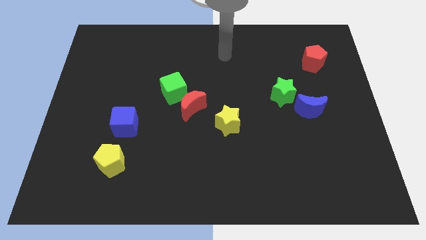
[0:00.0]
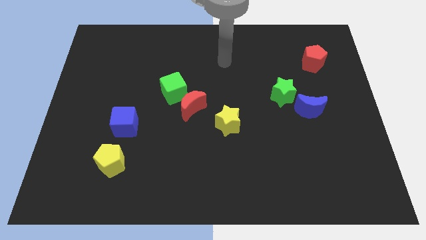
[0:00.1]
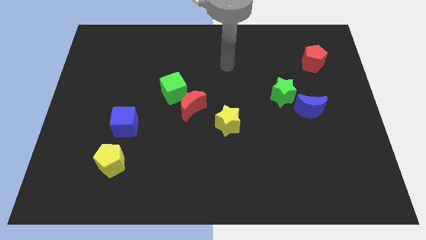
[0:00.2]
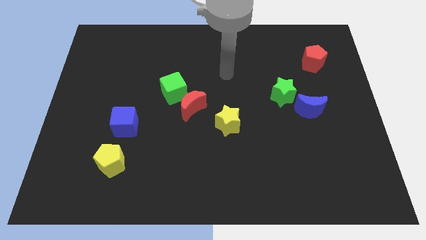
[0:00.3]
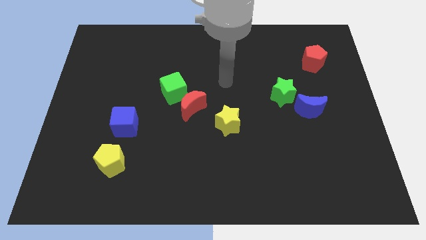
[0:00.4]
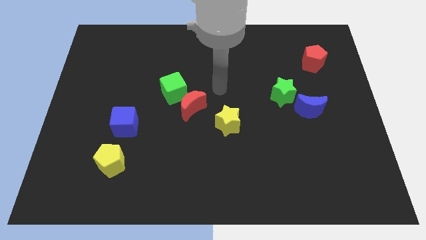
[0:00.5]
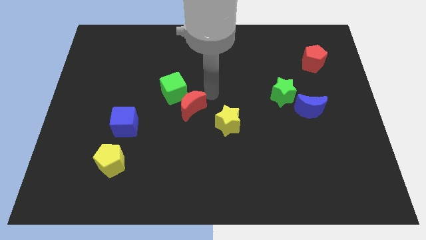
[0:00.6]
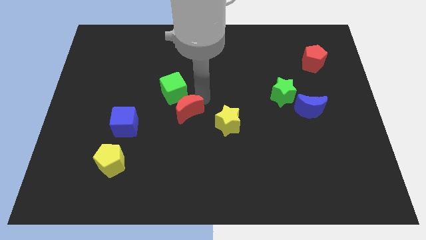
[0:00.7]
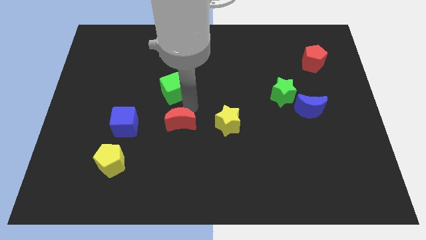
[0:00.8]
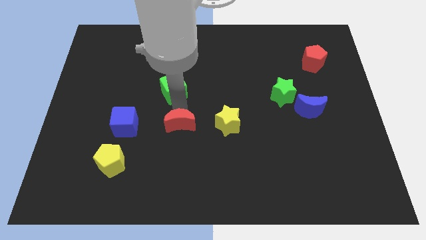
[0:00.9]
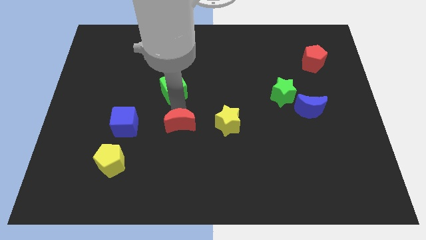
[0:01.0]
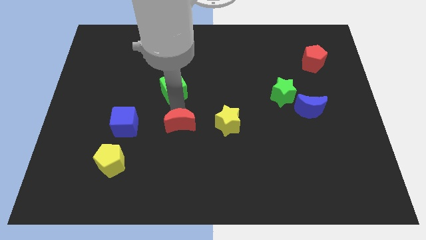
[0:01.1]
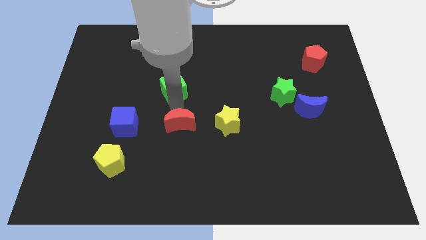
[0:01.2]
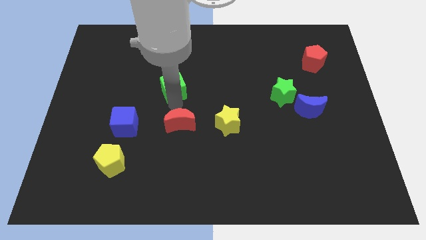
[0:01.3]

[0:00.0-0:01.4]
move the green cube away from the red moon

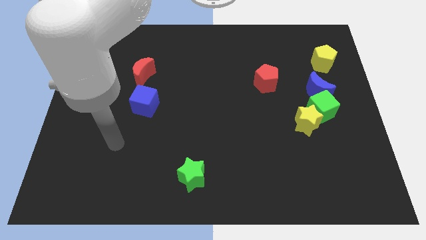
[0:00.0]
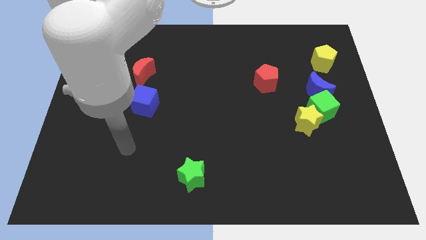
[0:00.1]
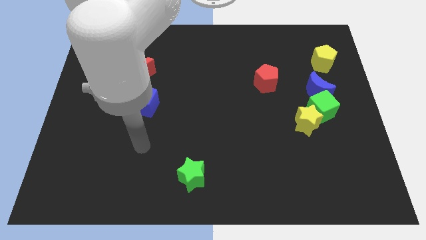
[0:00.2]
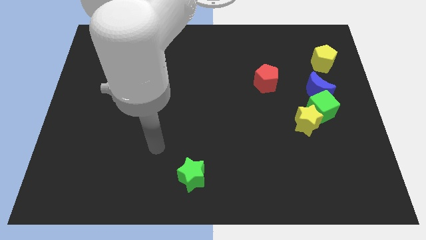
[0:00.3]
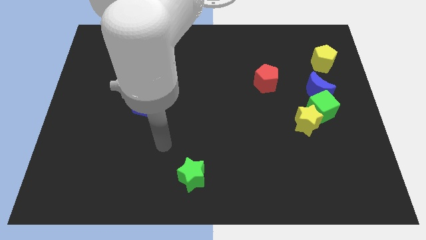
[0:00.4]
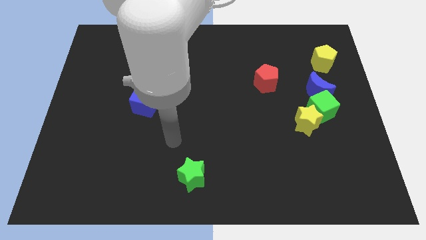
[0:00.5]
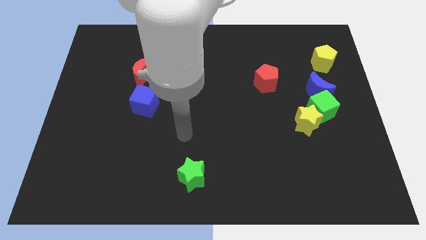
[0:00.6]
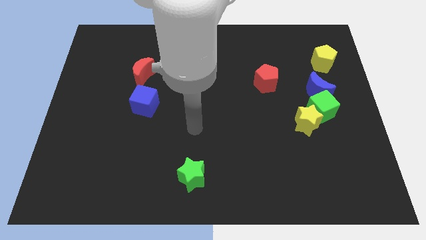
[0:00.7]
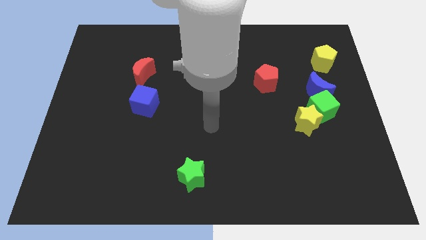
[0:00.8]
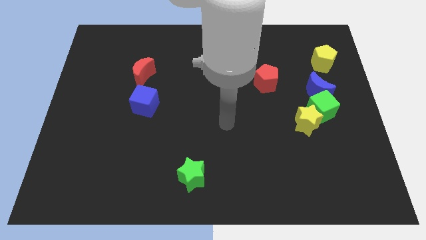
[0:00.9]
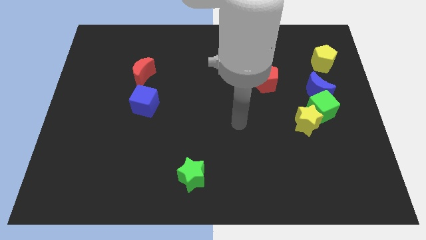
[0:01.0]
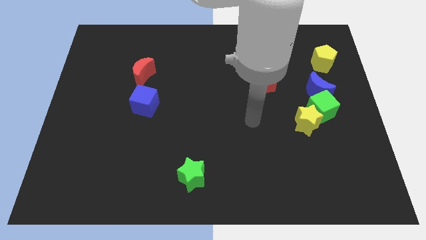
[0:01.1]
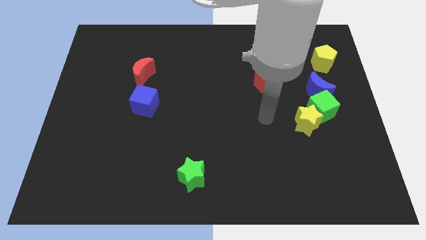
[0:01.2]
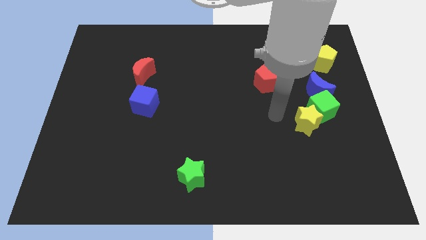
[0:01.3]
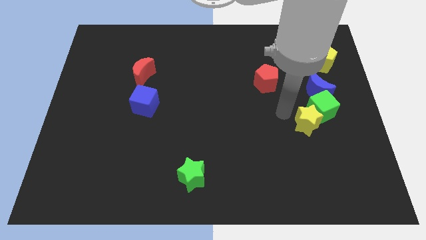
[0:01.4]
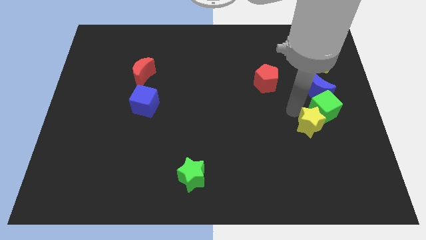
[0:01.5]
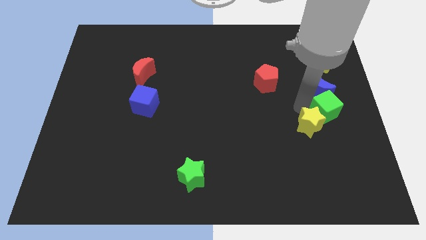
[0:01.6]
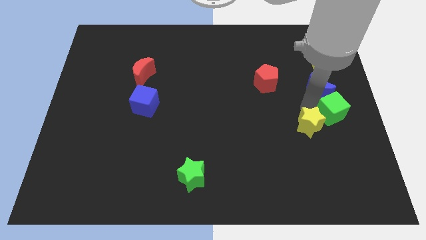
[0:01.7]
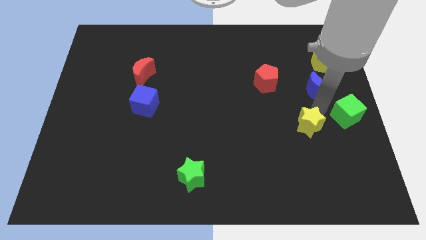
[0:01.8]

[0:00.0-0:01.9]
move the yellow star away from the green cube

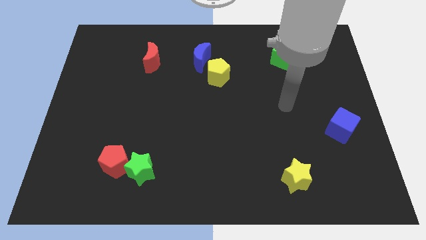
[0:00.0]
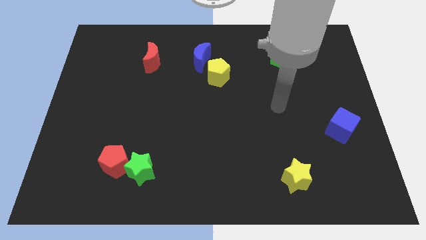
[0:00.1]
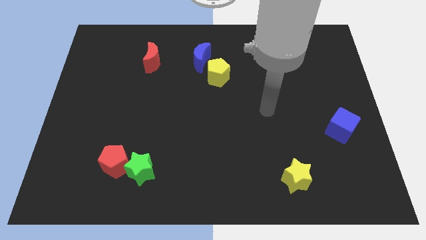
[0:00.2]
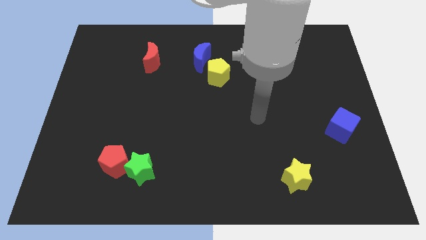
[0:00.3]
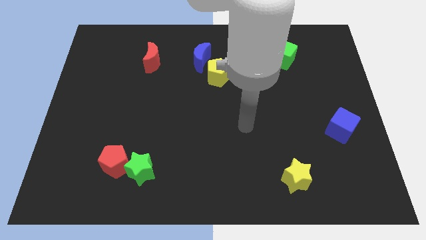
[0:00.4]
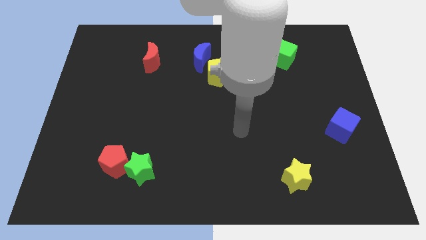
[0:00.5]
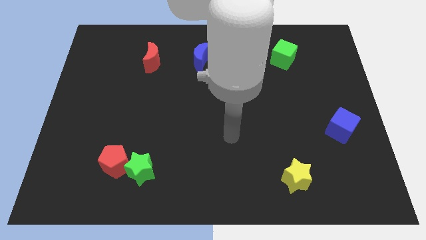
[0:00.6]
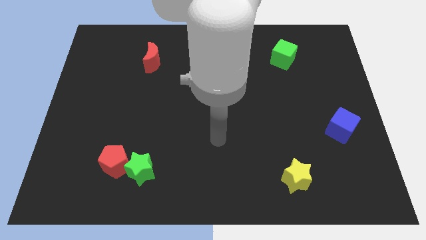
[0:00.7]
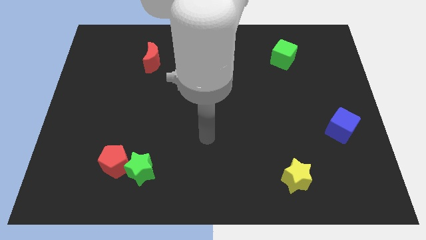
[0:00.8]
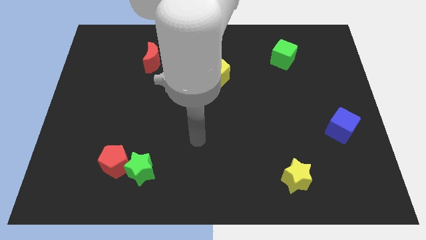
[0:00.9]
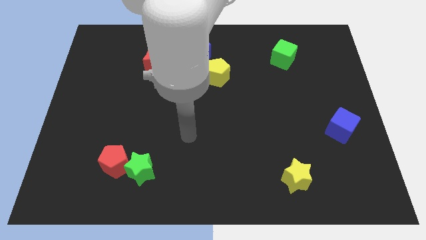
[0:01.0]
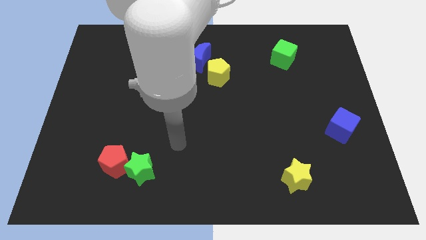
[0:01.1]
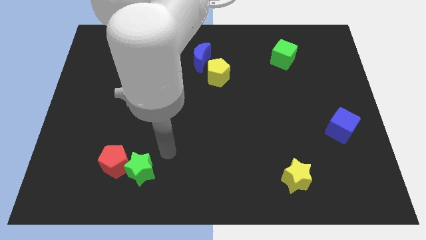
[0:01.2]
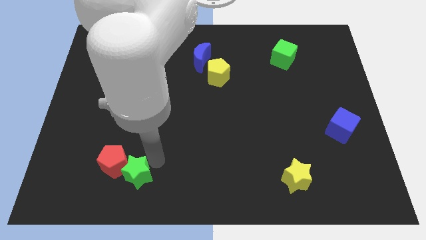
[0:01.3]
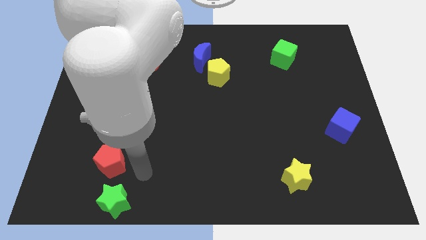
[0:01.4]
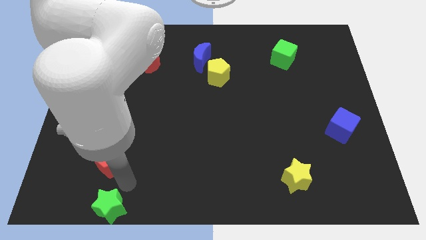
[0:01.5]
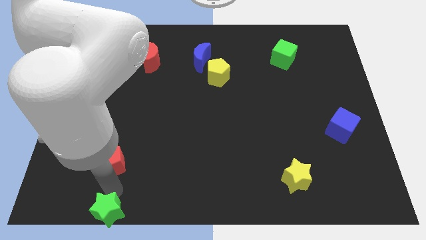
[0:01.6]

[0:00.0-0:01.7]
pull the red pentagon apart from the green star

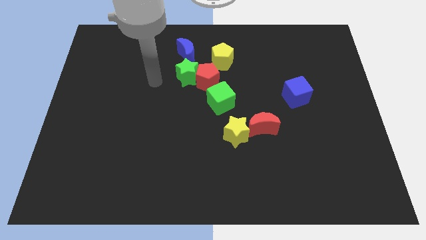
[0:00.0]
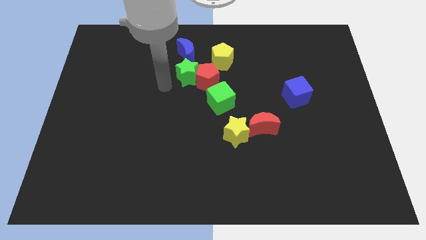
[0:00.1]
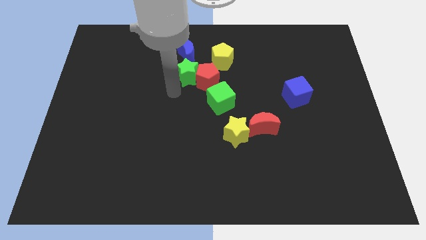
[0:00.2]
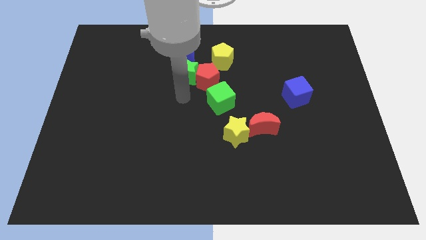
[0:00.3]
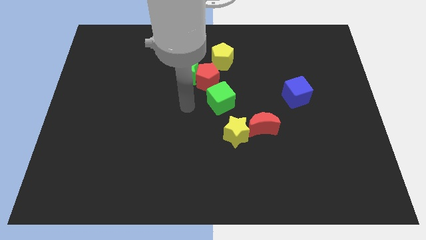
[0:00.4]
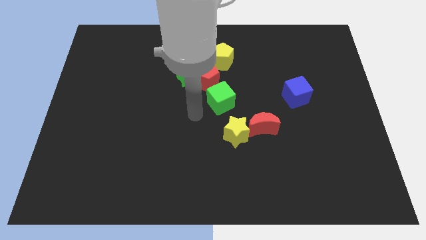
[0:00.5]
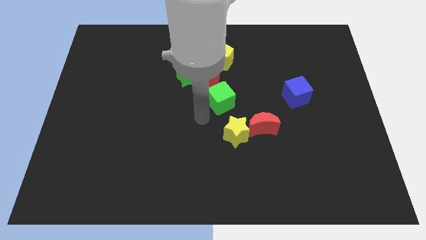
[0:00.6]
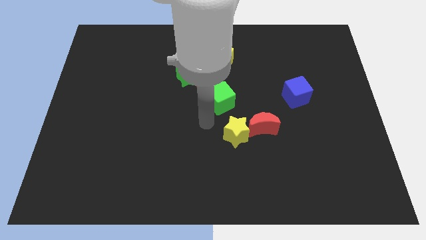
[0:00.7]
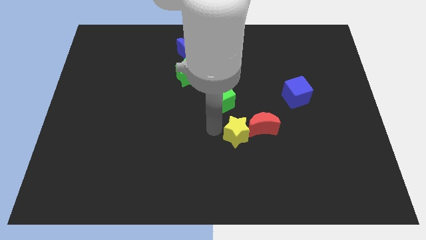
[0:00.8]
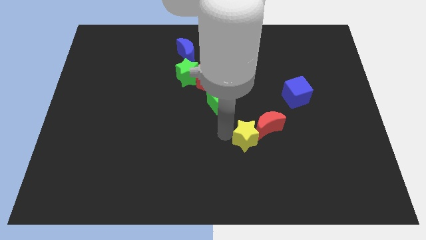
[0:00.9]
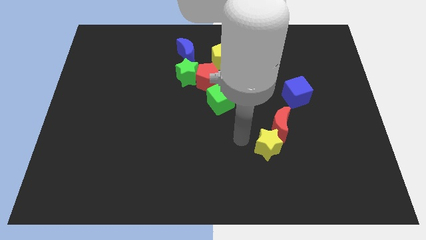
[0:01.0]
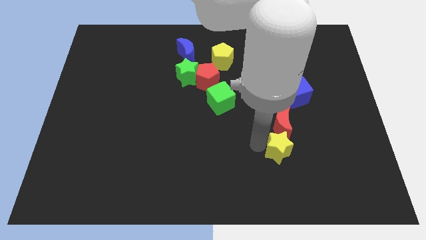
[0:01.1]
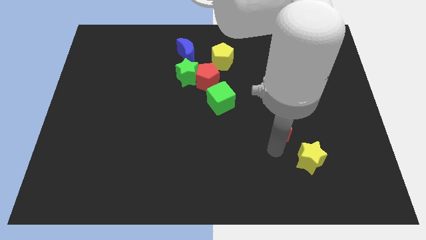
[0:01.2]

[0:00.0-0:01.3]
move the red moon away from the yellow star

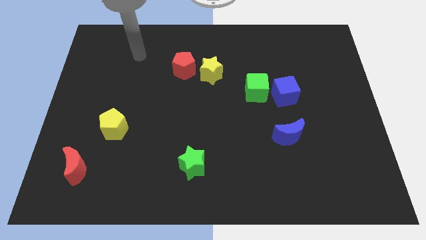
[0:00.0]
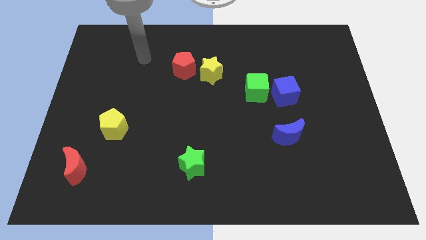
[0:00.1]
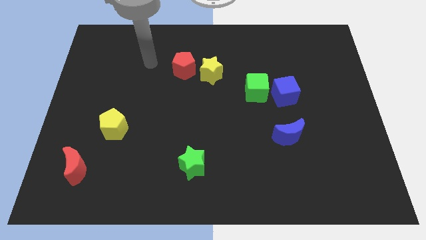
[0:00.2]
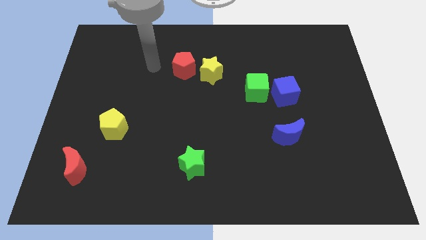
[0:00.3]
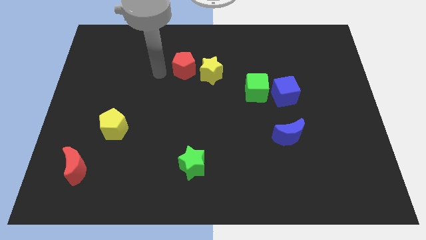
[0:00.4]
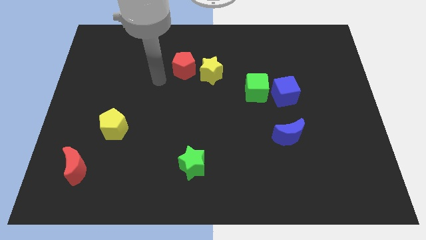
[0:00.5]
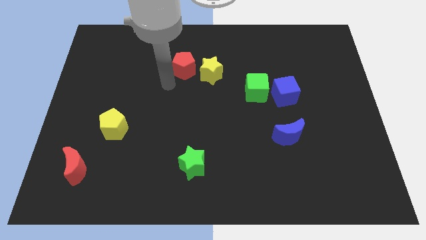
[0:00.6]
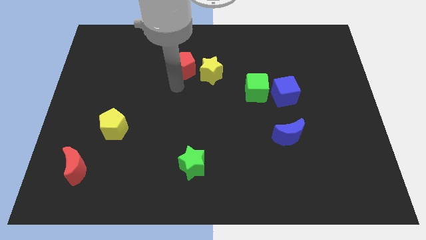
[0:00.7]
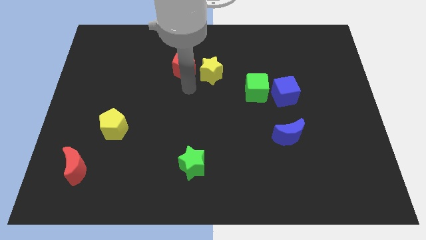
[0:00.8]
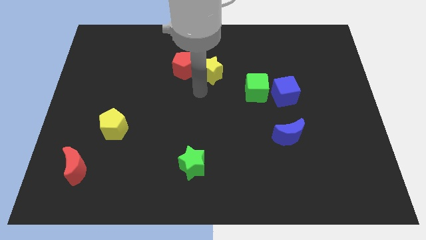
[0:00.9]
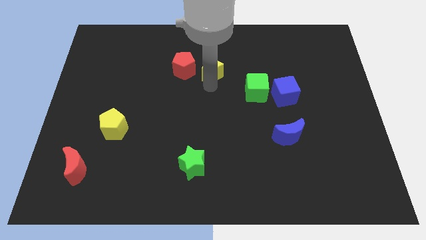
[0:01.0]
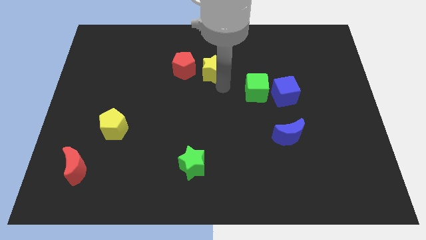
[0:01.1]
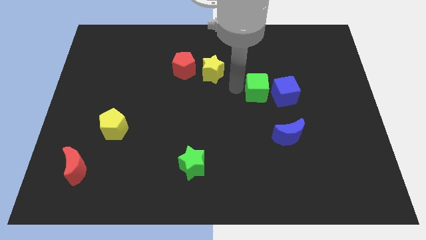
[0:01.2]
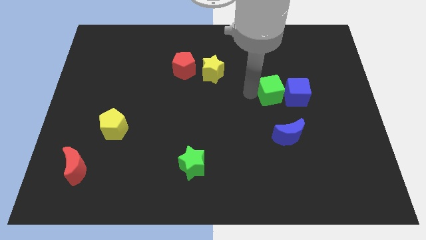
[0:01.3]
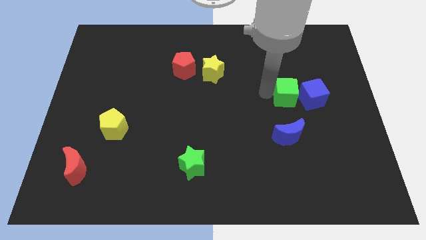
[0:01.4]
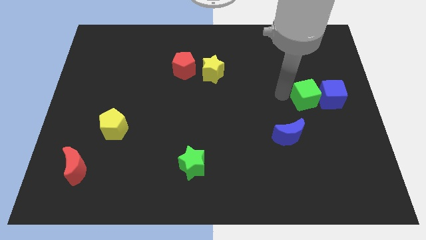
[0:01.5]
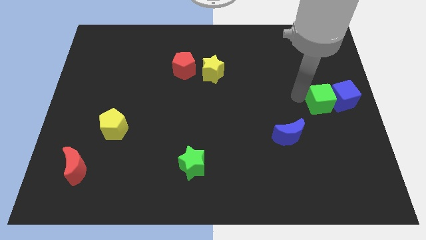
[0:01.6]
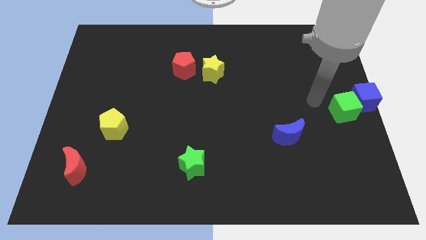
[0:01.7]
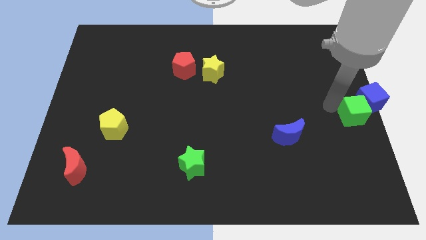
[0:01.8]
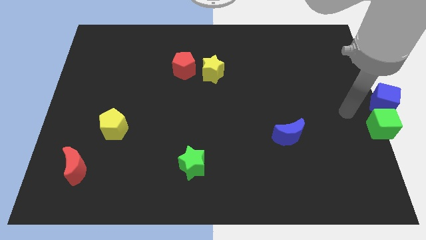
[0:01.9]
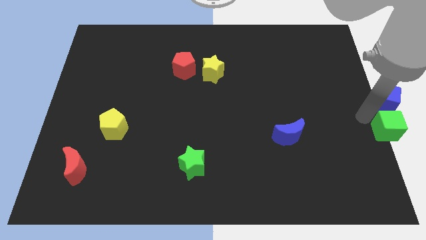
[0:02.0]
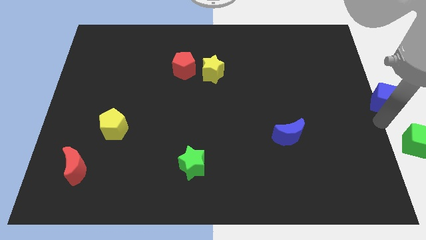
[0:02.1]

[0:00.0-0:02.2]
move the blue cube away from the green cube

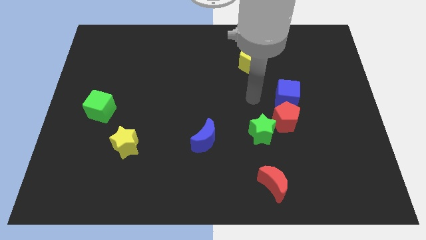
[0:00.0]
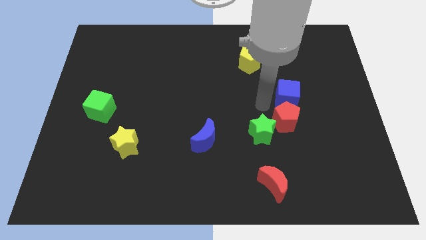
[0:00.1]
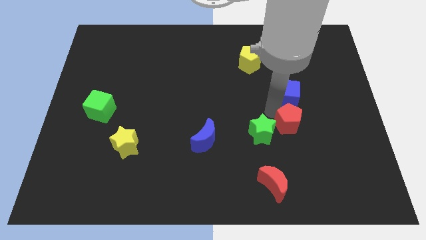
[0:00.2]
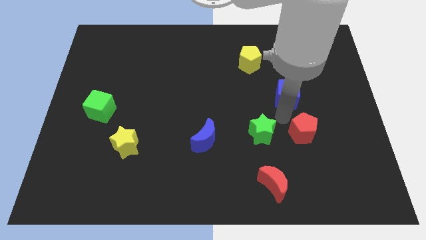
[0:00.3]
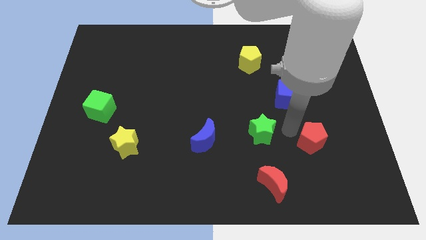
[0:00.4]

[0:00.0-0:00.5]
separate the green star from the red pentagon

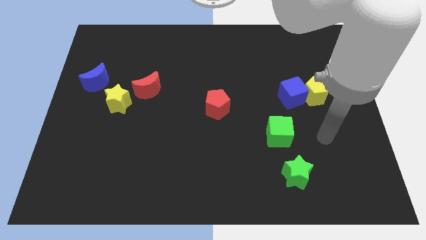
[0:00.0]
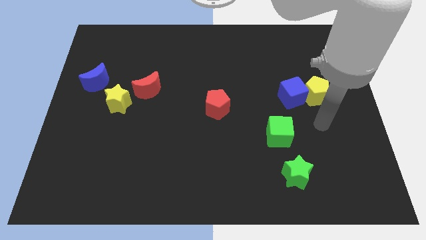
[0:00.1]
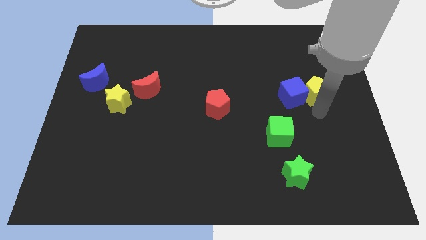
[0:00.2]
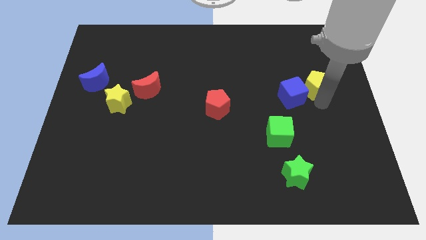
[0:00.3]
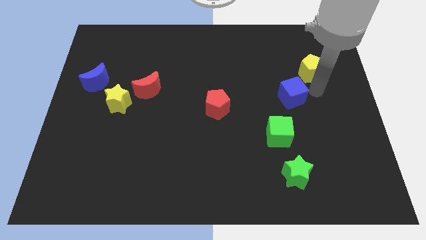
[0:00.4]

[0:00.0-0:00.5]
separate the blue cube from the yellow pentagon
